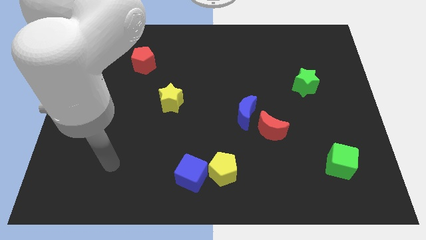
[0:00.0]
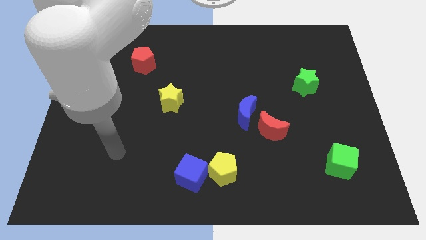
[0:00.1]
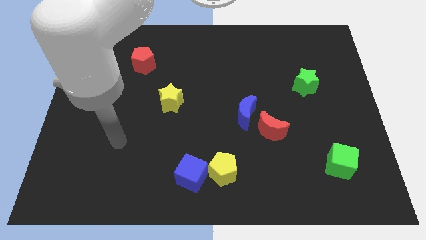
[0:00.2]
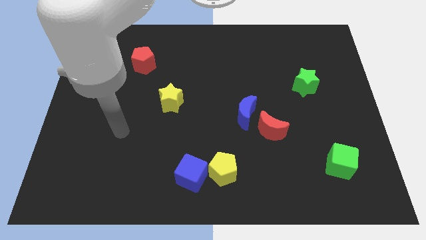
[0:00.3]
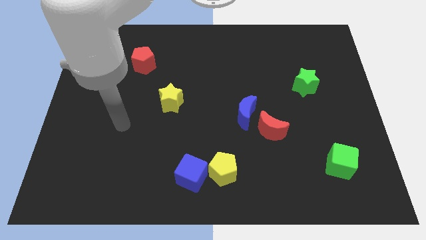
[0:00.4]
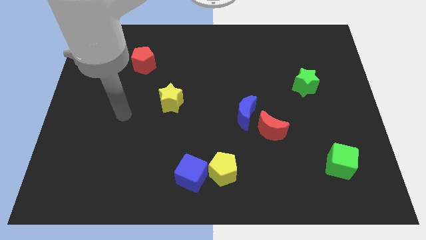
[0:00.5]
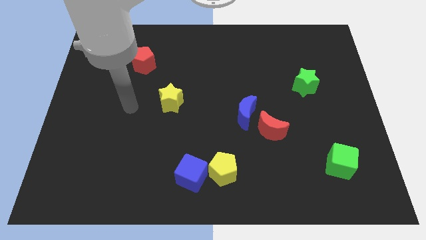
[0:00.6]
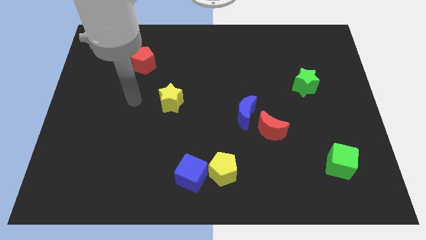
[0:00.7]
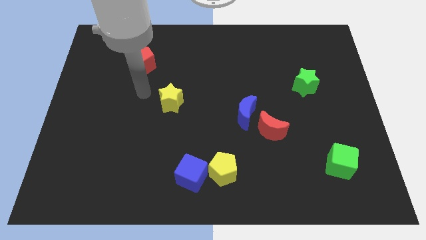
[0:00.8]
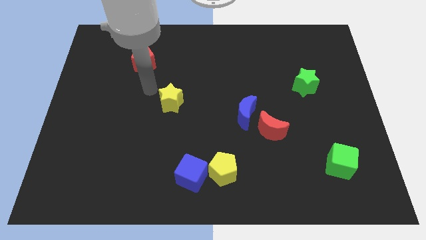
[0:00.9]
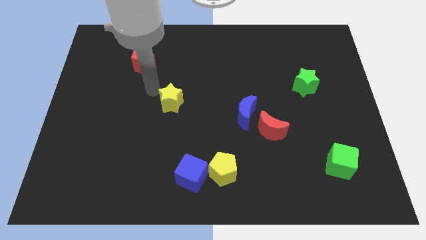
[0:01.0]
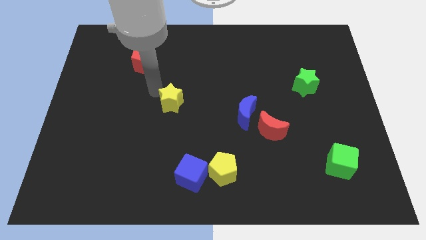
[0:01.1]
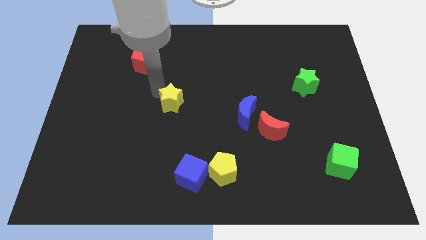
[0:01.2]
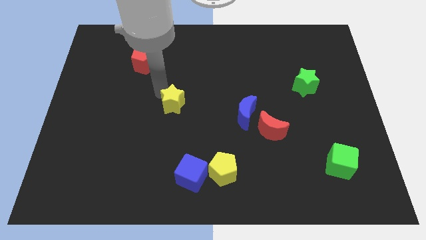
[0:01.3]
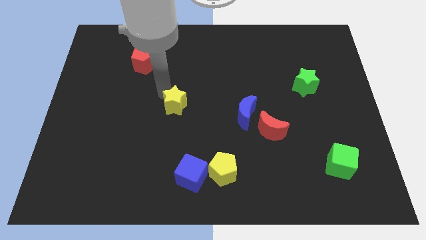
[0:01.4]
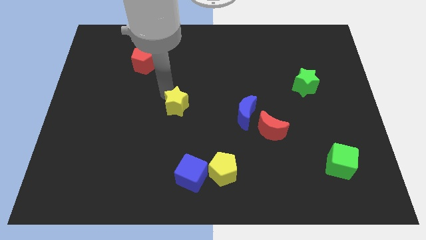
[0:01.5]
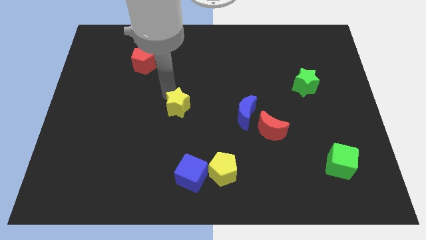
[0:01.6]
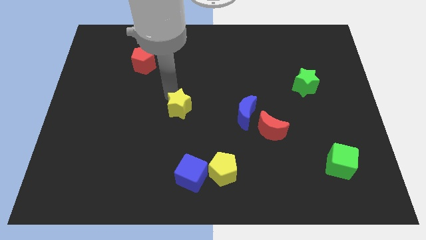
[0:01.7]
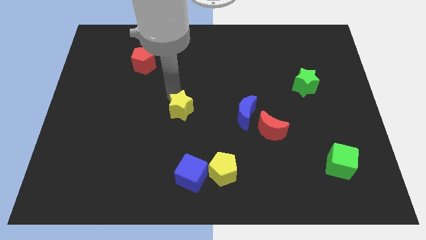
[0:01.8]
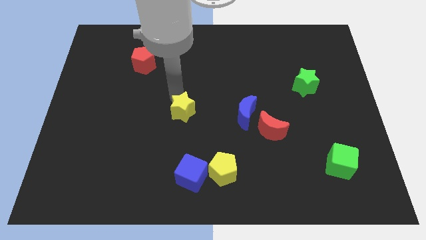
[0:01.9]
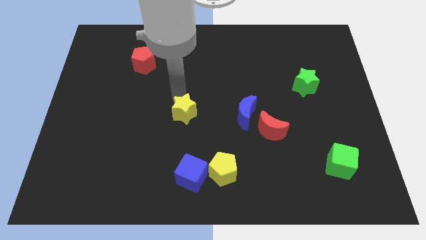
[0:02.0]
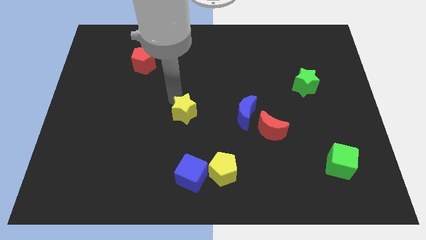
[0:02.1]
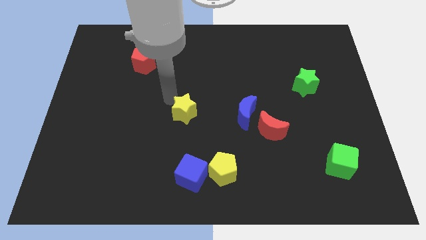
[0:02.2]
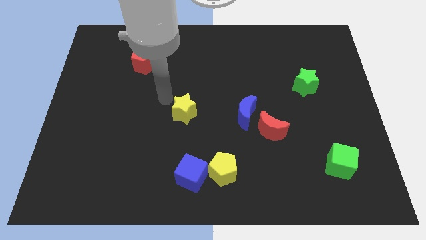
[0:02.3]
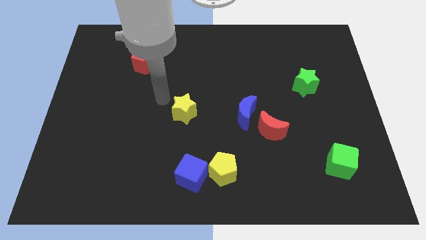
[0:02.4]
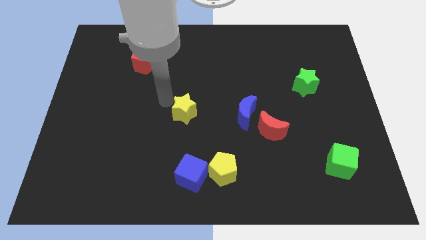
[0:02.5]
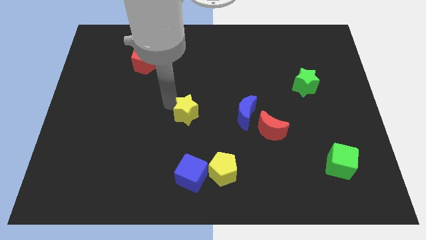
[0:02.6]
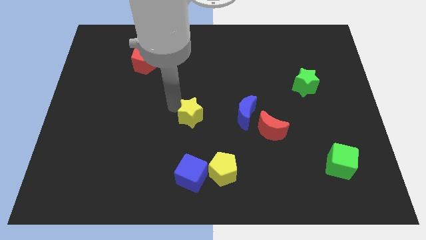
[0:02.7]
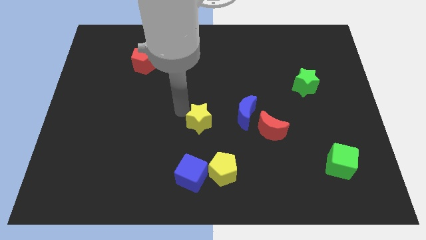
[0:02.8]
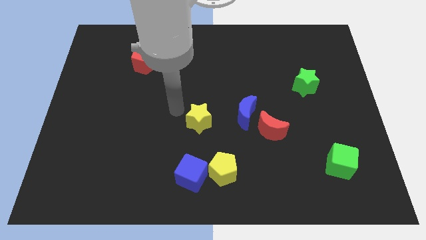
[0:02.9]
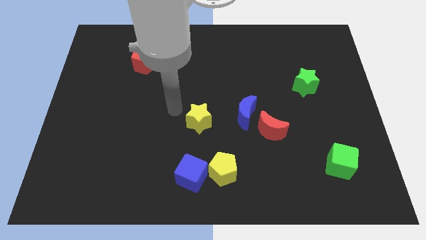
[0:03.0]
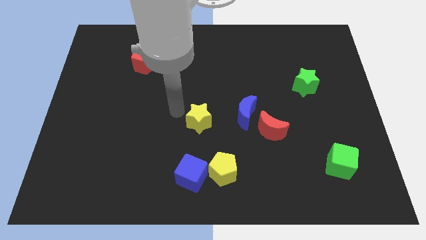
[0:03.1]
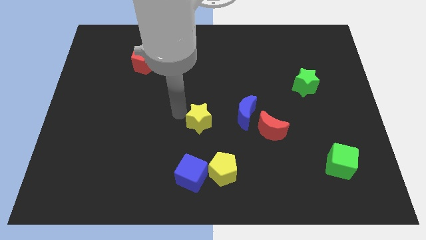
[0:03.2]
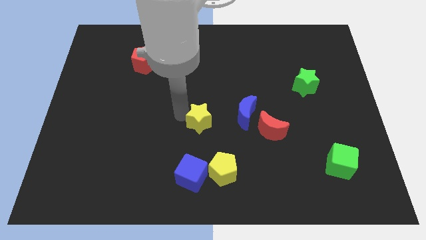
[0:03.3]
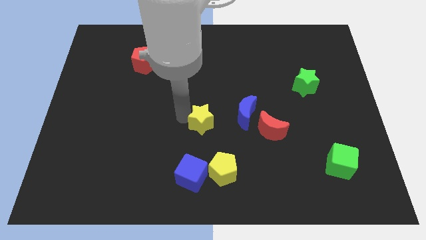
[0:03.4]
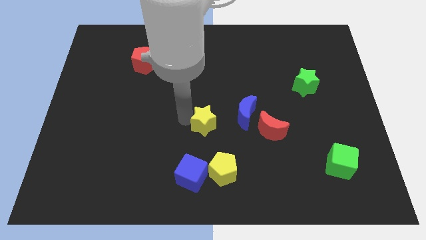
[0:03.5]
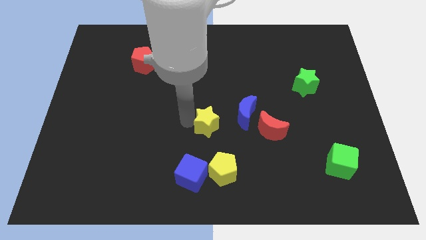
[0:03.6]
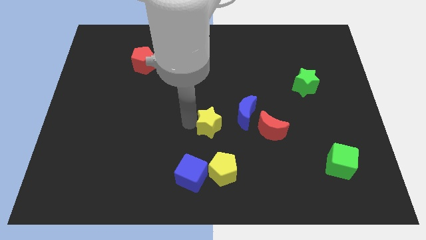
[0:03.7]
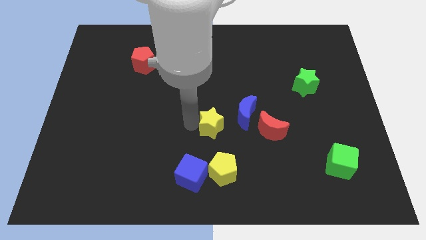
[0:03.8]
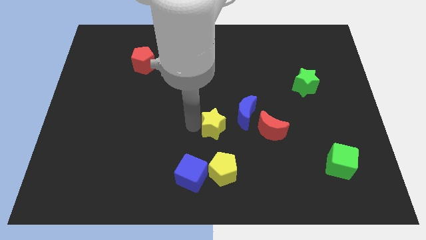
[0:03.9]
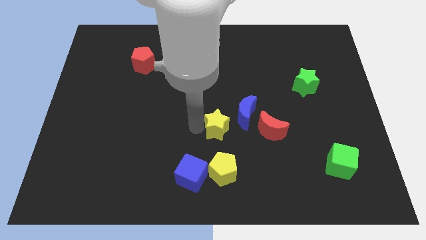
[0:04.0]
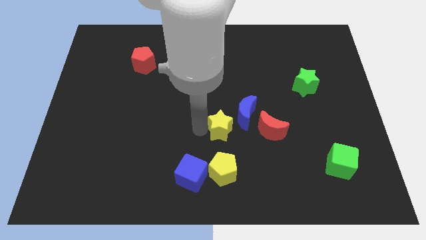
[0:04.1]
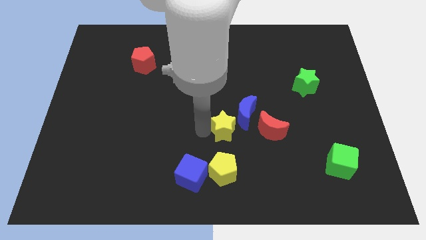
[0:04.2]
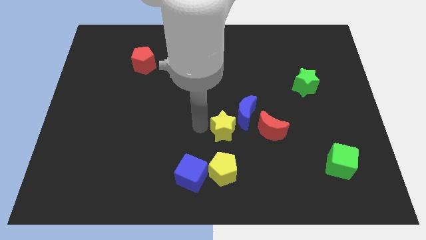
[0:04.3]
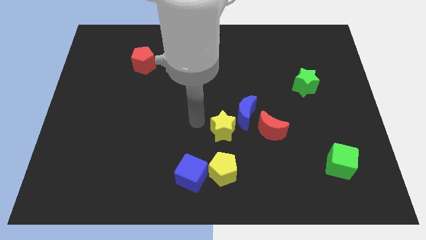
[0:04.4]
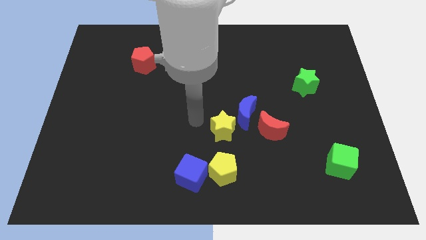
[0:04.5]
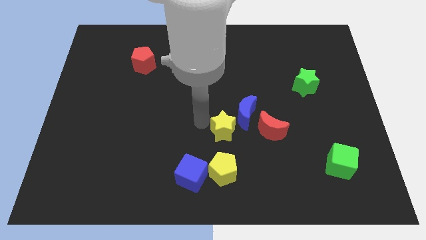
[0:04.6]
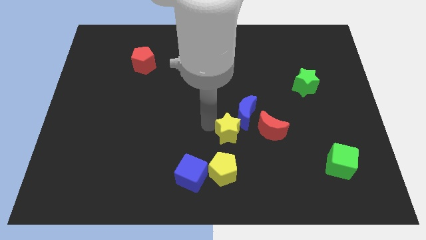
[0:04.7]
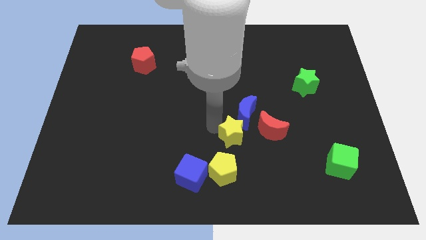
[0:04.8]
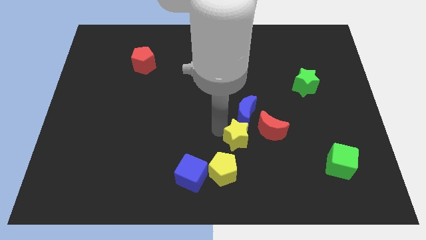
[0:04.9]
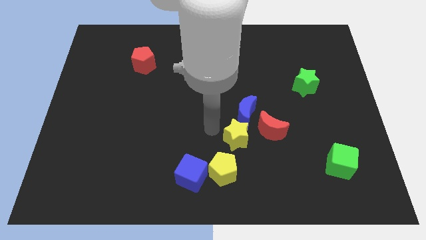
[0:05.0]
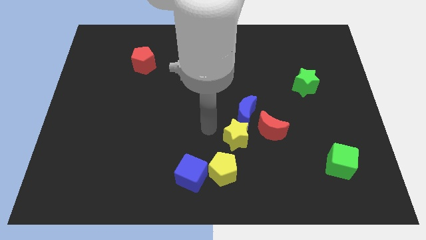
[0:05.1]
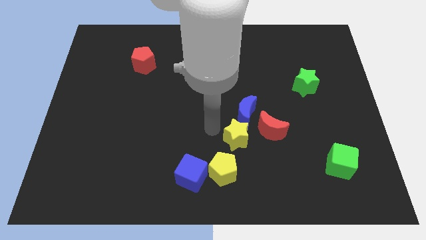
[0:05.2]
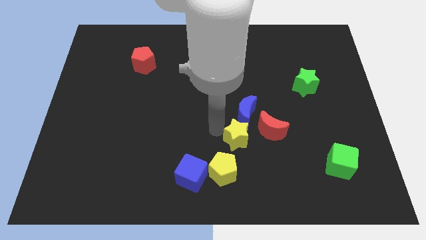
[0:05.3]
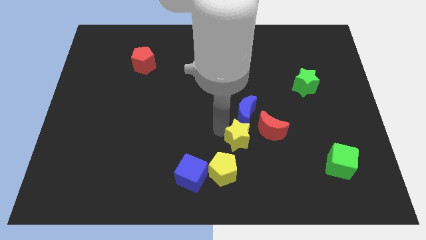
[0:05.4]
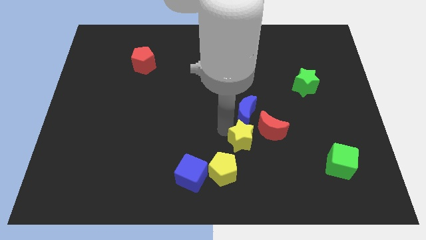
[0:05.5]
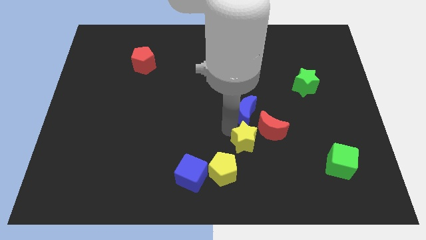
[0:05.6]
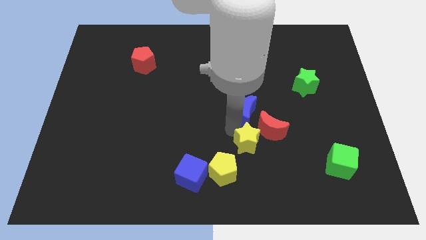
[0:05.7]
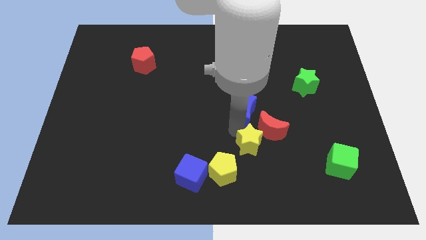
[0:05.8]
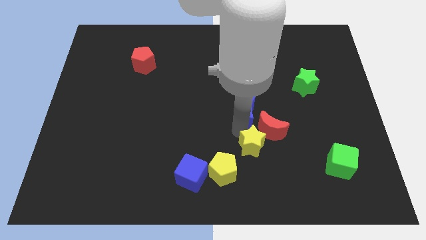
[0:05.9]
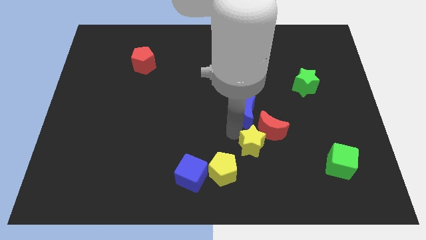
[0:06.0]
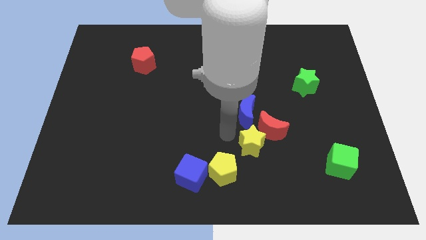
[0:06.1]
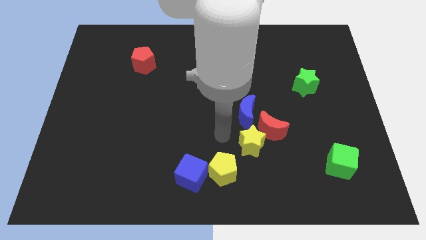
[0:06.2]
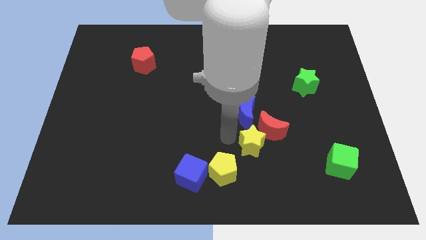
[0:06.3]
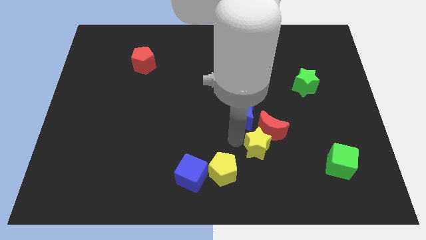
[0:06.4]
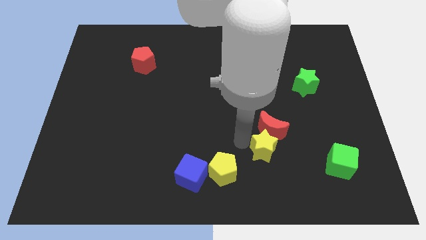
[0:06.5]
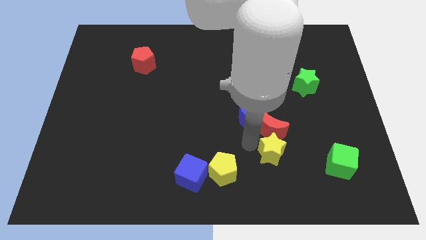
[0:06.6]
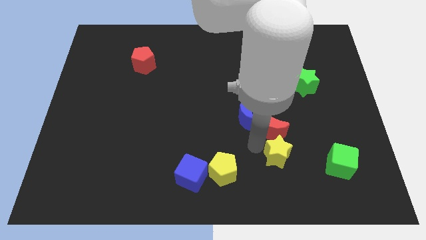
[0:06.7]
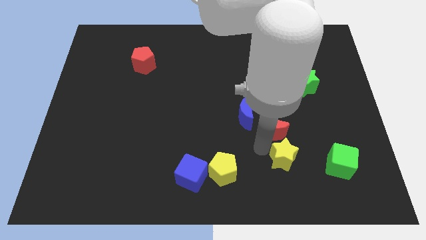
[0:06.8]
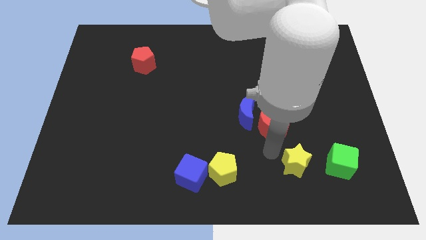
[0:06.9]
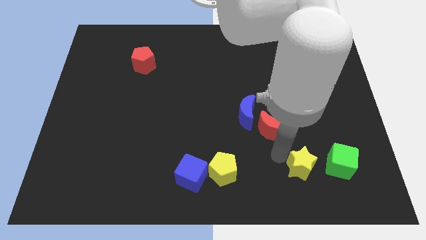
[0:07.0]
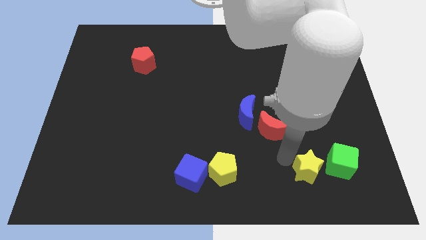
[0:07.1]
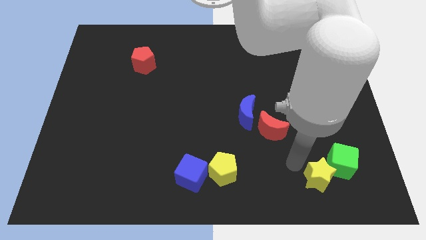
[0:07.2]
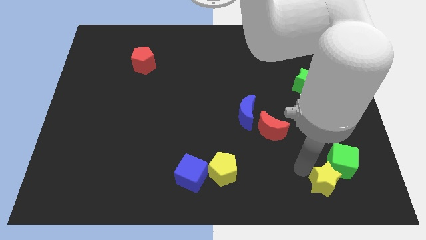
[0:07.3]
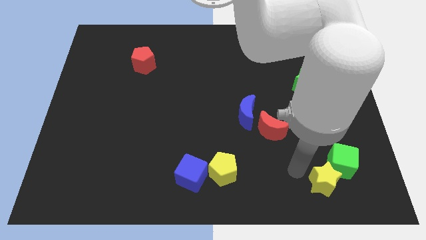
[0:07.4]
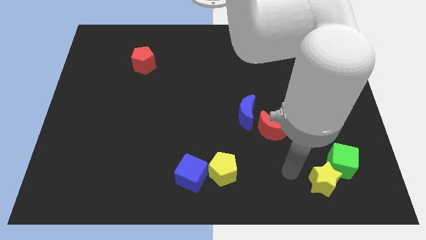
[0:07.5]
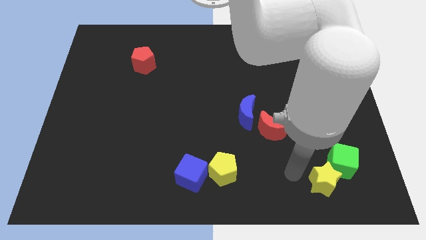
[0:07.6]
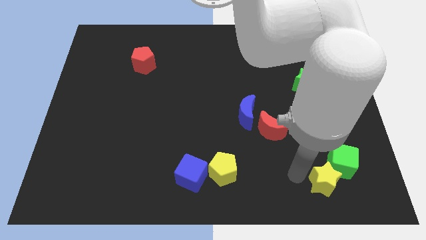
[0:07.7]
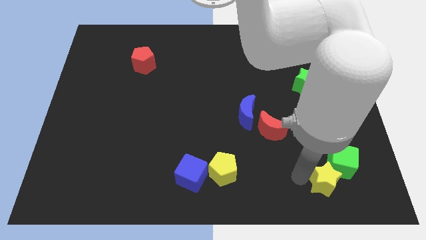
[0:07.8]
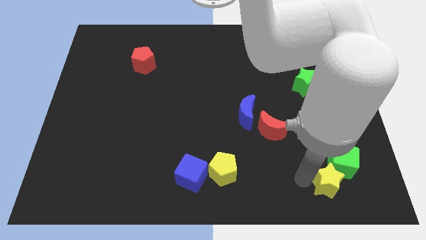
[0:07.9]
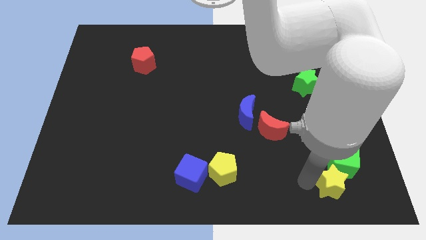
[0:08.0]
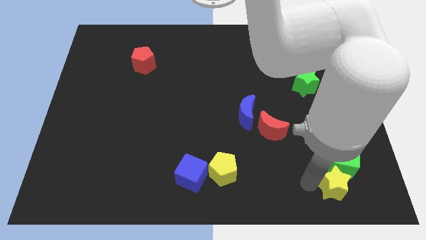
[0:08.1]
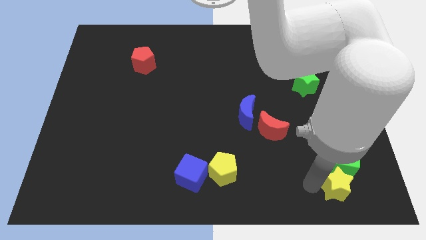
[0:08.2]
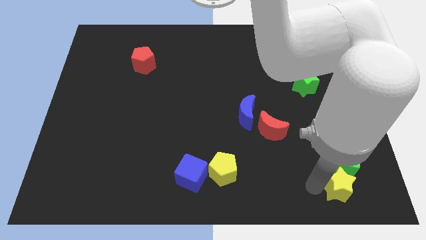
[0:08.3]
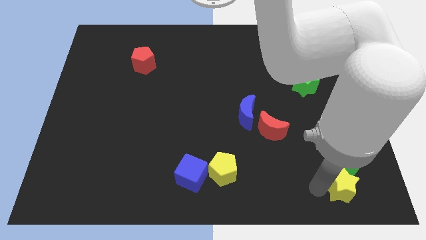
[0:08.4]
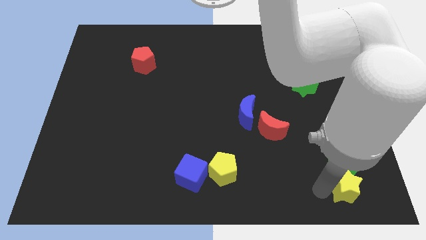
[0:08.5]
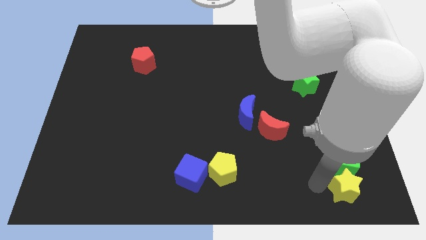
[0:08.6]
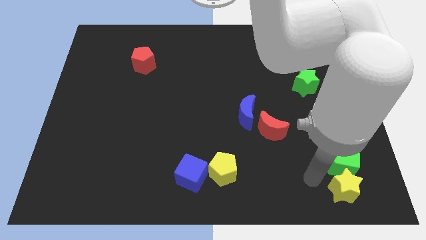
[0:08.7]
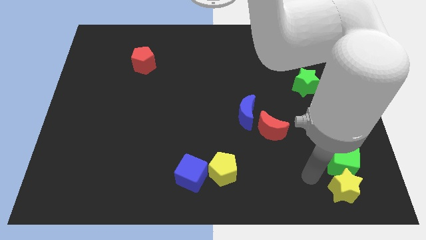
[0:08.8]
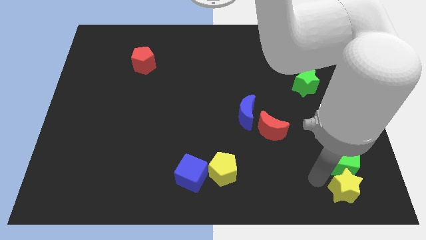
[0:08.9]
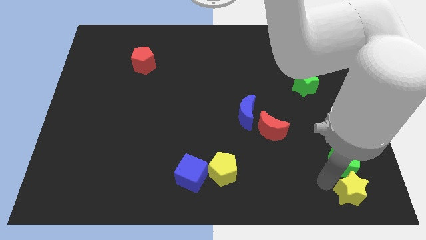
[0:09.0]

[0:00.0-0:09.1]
push the yellow star to the bottom right
